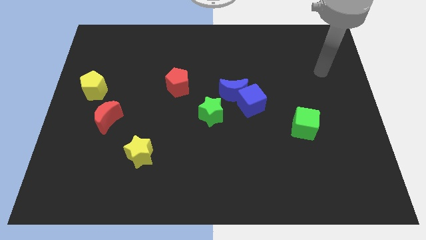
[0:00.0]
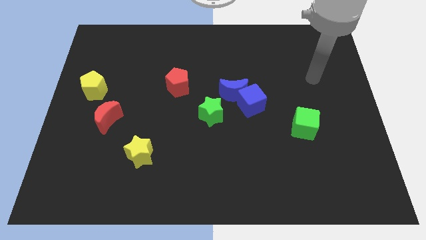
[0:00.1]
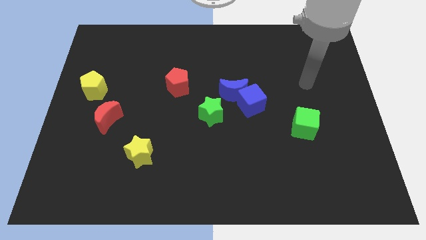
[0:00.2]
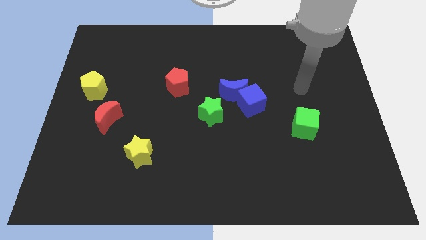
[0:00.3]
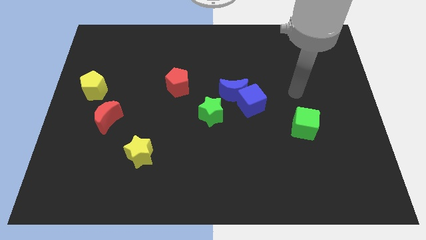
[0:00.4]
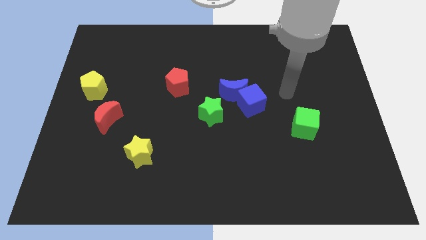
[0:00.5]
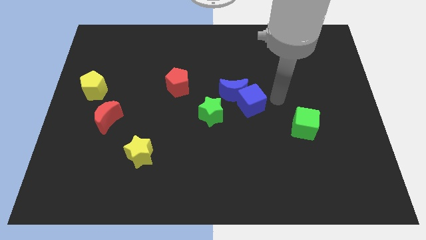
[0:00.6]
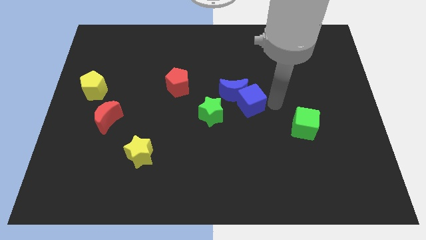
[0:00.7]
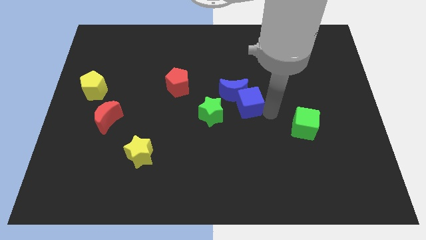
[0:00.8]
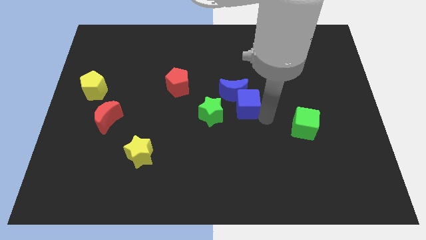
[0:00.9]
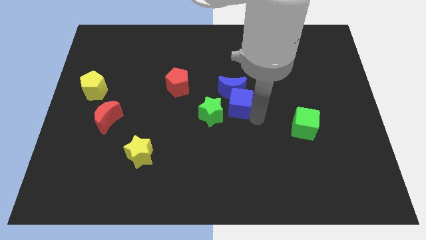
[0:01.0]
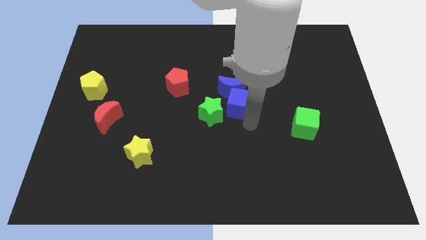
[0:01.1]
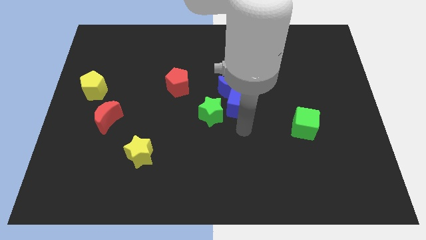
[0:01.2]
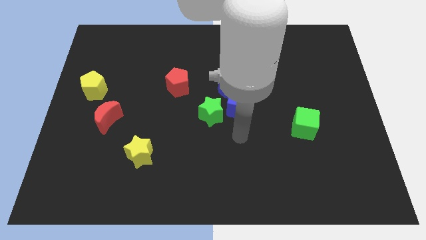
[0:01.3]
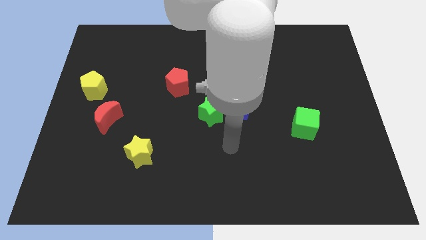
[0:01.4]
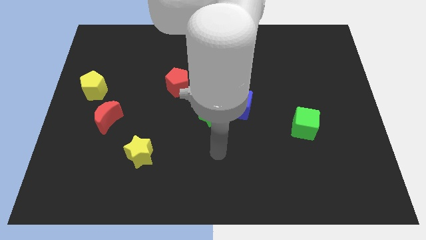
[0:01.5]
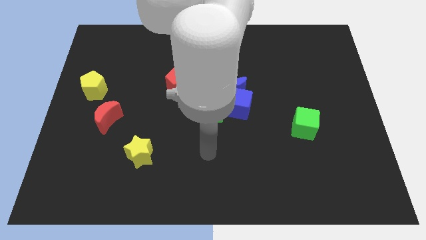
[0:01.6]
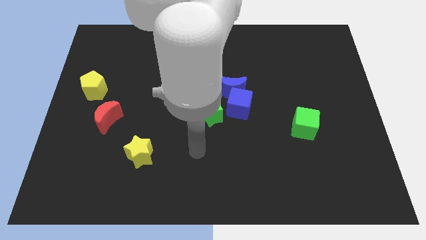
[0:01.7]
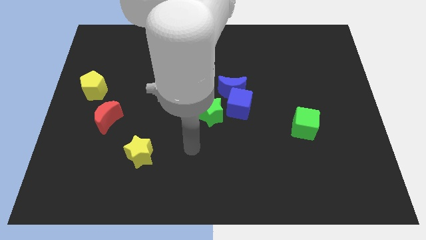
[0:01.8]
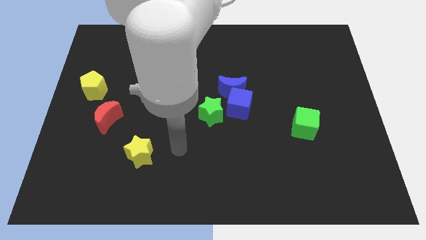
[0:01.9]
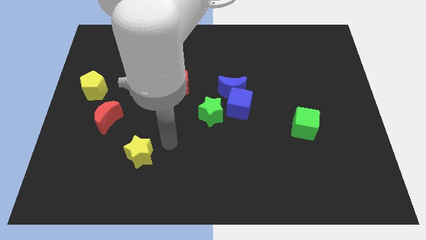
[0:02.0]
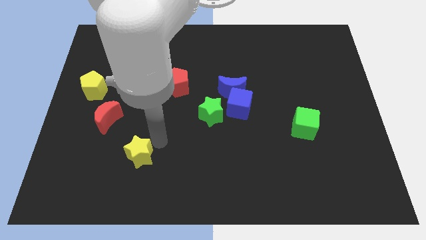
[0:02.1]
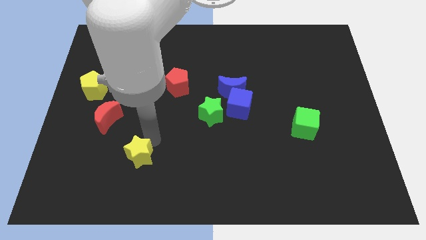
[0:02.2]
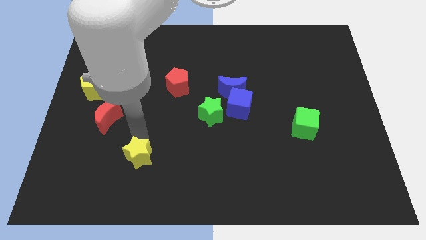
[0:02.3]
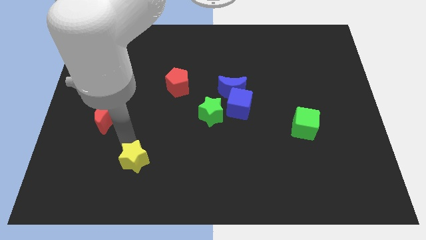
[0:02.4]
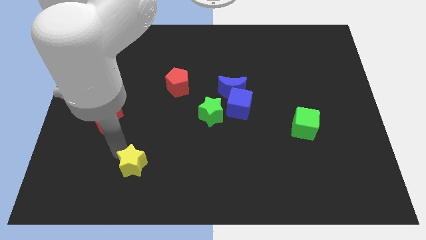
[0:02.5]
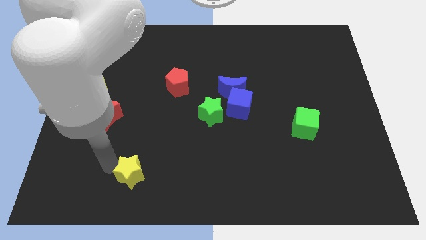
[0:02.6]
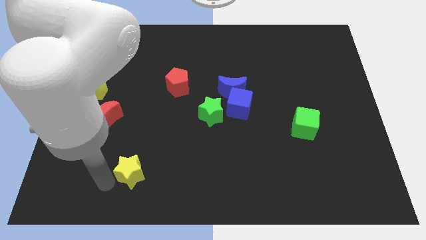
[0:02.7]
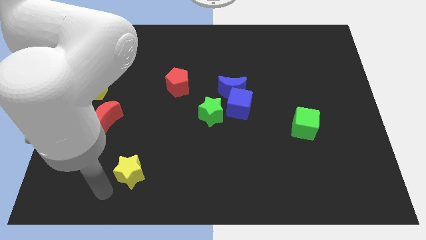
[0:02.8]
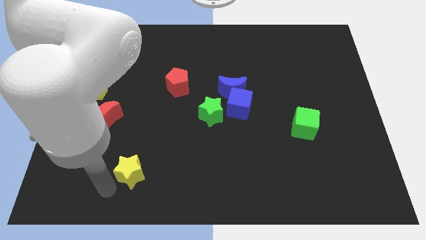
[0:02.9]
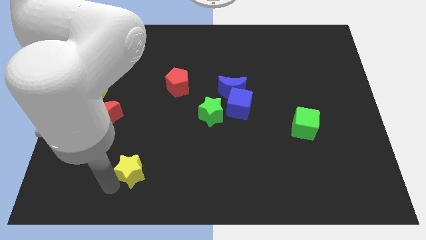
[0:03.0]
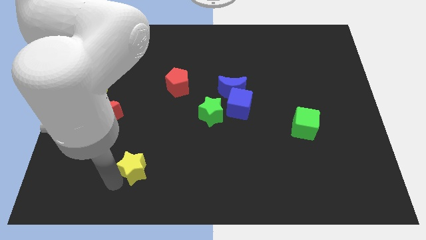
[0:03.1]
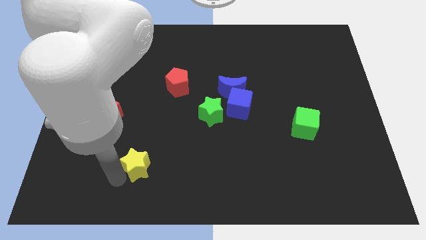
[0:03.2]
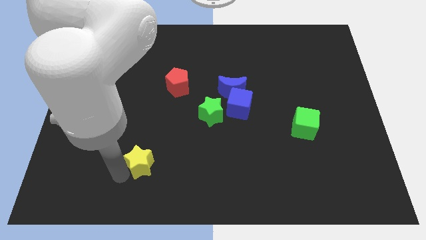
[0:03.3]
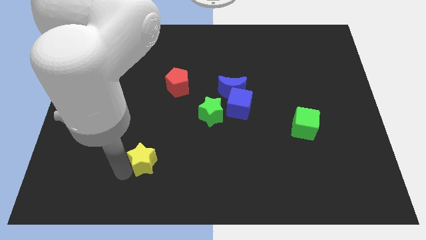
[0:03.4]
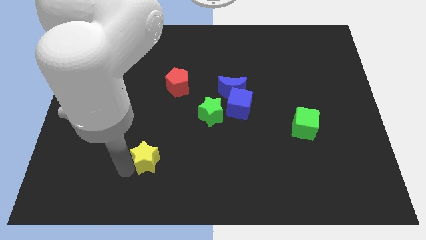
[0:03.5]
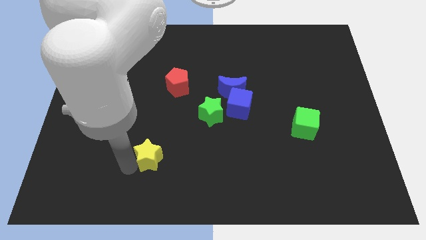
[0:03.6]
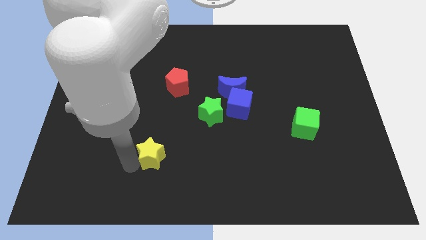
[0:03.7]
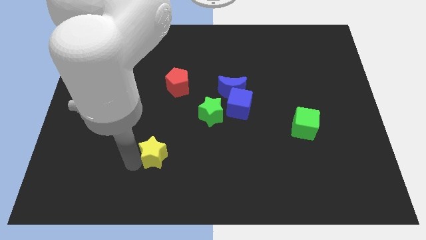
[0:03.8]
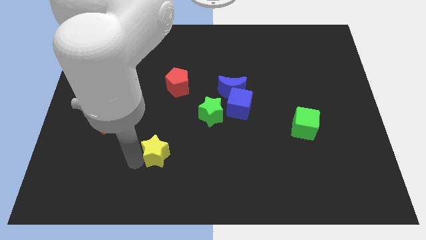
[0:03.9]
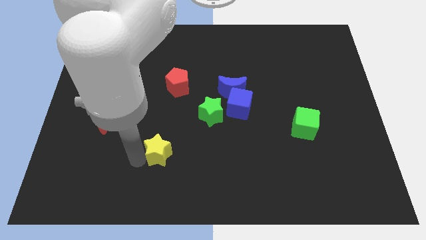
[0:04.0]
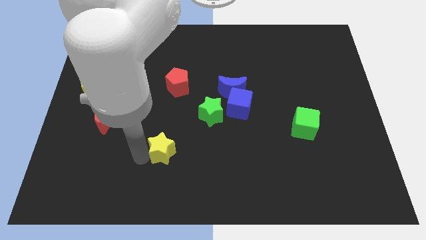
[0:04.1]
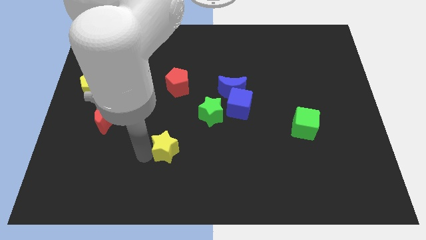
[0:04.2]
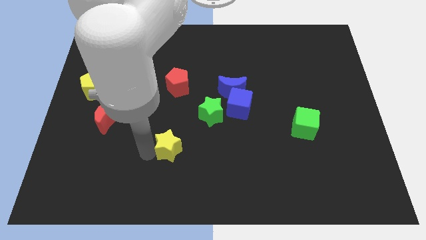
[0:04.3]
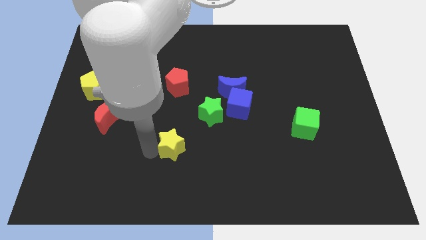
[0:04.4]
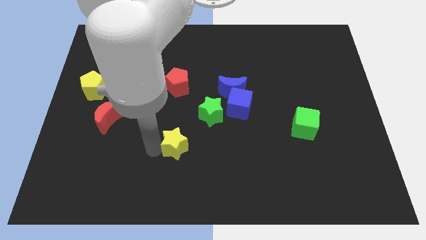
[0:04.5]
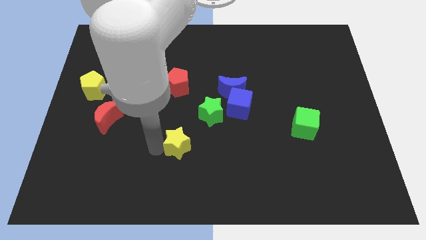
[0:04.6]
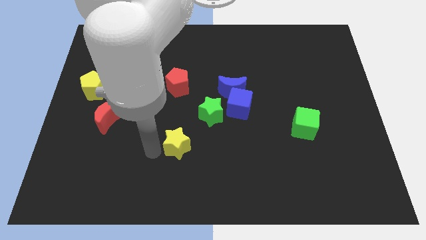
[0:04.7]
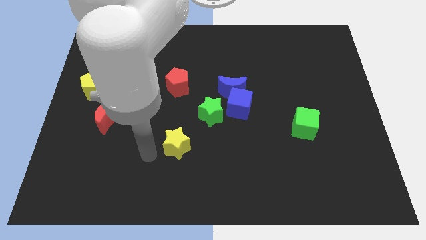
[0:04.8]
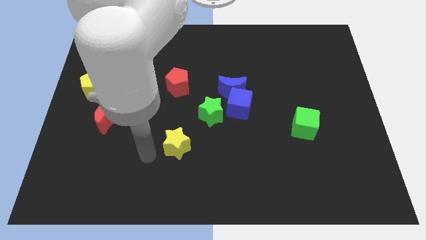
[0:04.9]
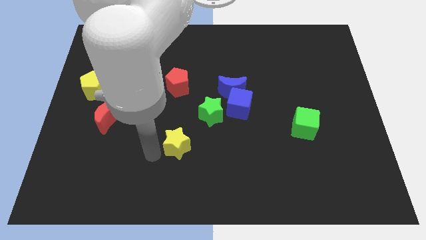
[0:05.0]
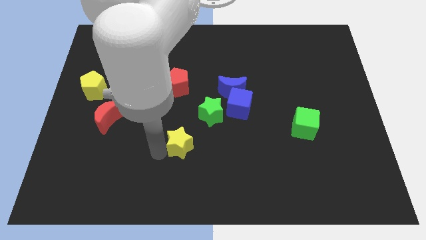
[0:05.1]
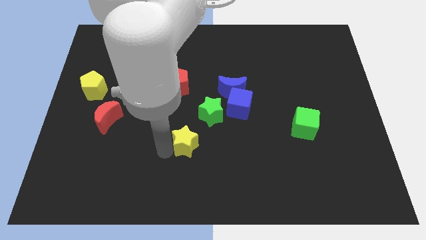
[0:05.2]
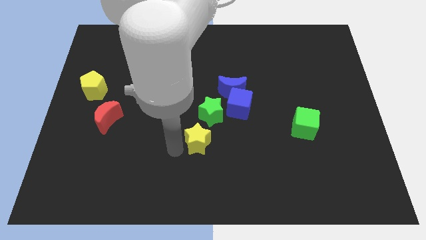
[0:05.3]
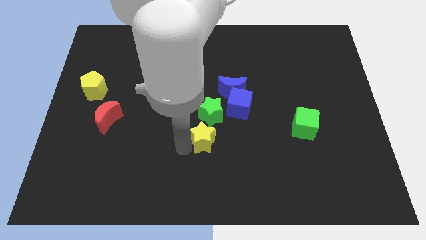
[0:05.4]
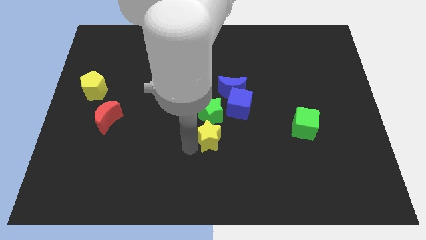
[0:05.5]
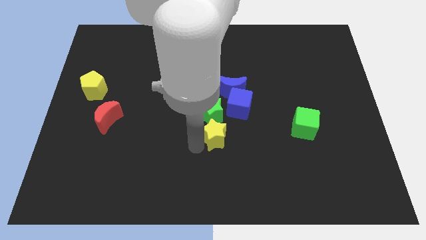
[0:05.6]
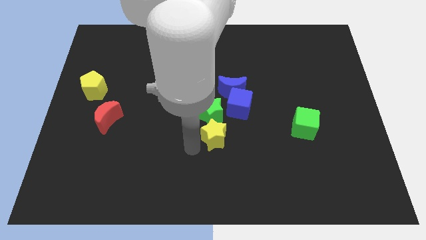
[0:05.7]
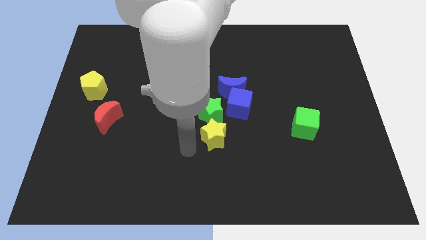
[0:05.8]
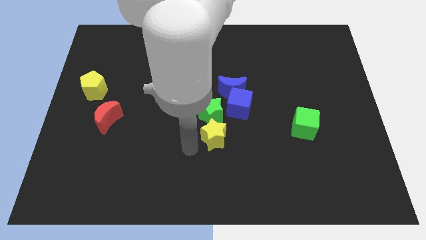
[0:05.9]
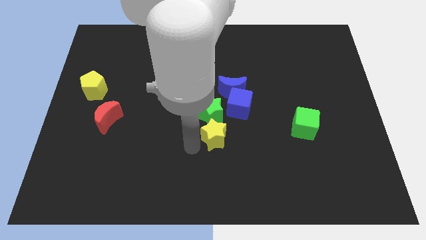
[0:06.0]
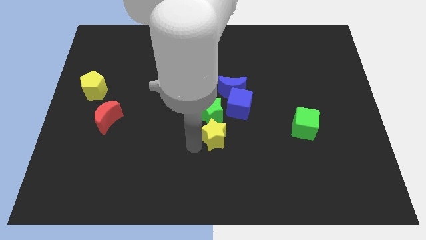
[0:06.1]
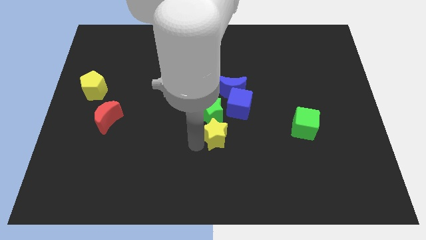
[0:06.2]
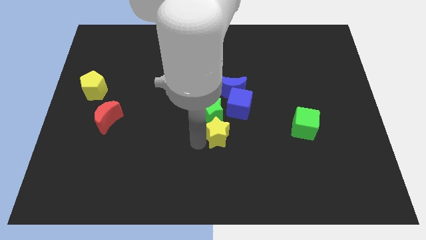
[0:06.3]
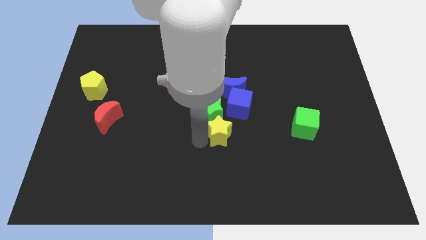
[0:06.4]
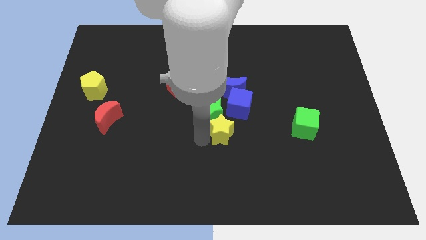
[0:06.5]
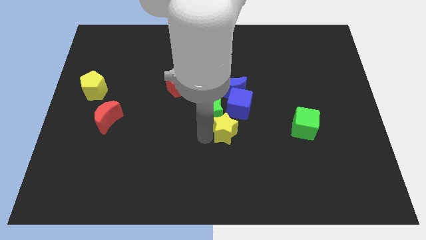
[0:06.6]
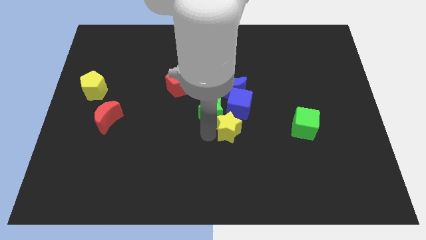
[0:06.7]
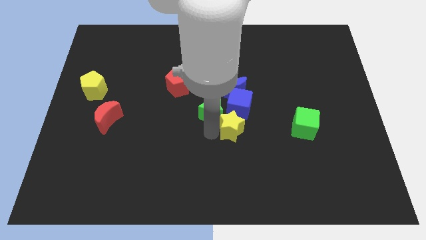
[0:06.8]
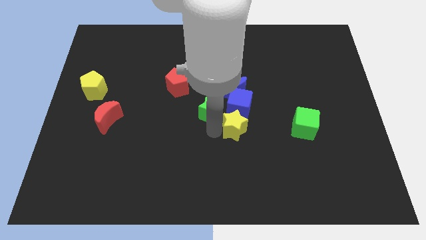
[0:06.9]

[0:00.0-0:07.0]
slide the yellow star left of the green cube
